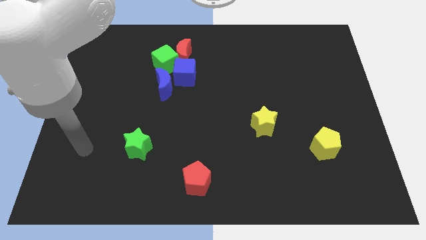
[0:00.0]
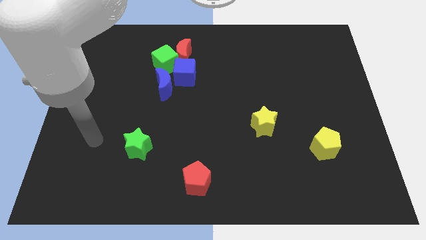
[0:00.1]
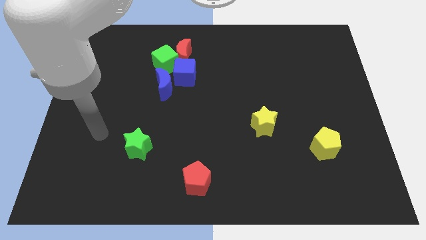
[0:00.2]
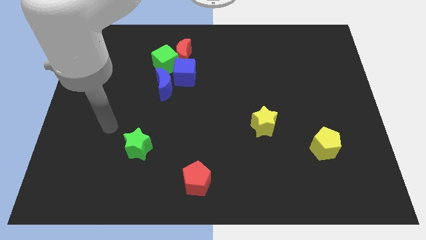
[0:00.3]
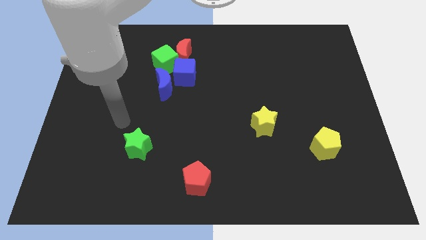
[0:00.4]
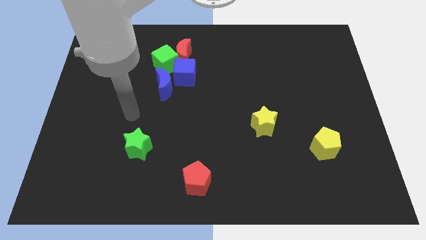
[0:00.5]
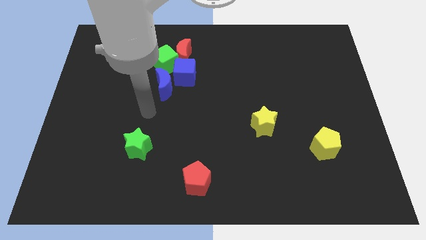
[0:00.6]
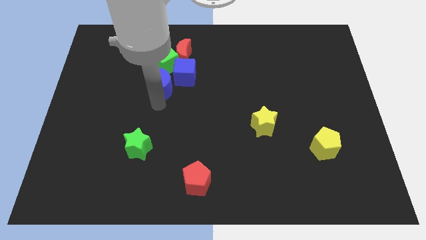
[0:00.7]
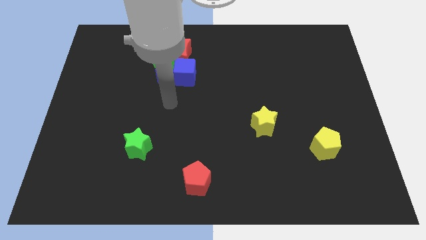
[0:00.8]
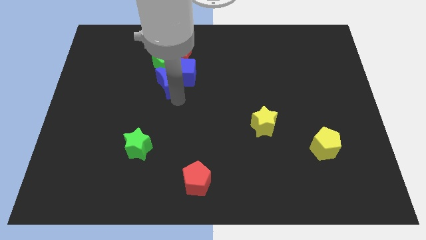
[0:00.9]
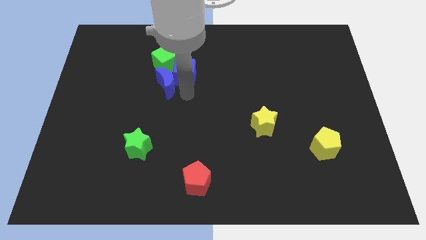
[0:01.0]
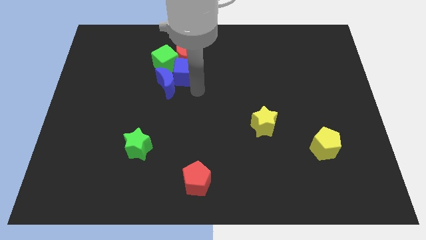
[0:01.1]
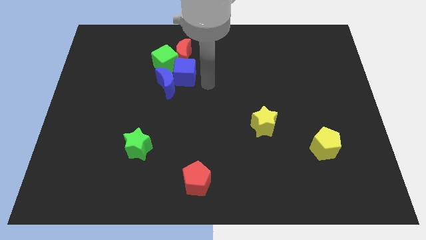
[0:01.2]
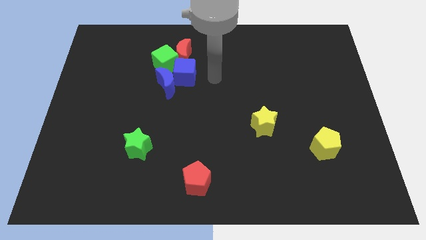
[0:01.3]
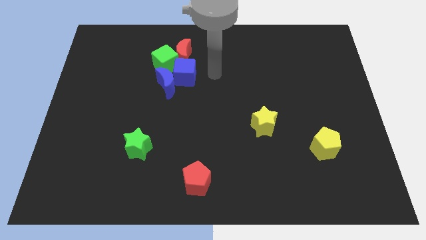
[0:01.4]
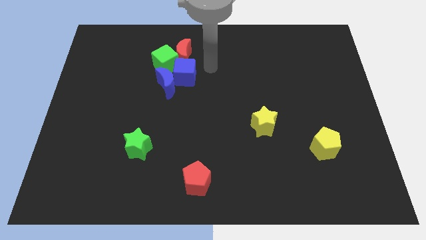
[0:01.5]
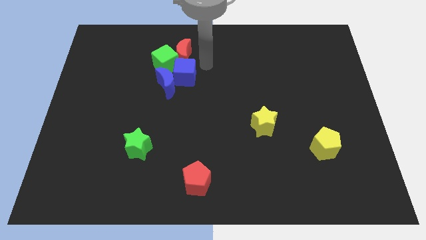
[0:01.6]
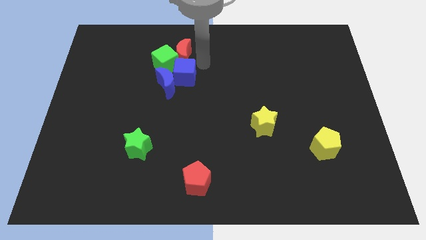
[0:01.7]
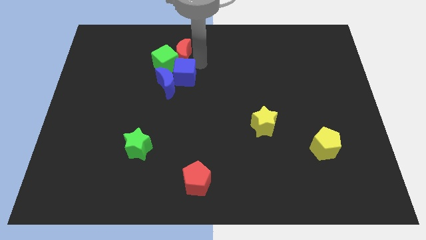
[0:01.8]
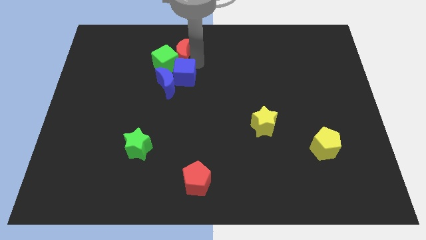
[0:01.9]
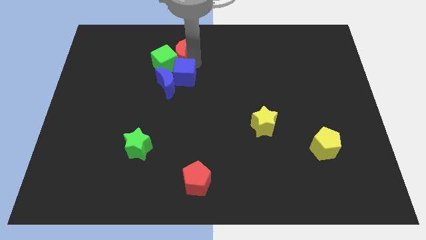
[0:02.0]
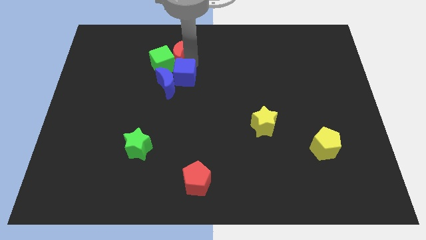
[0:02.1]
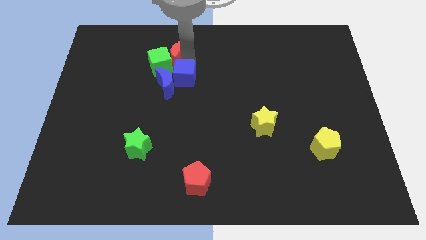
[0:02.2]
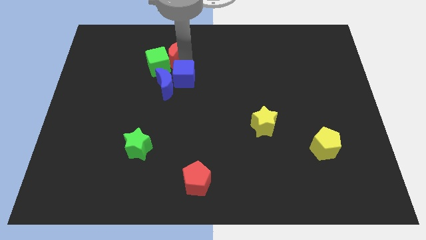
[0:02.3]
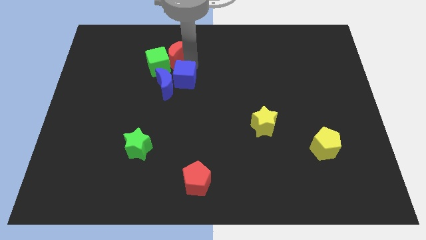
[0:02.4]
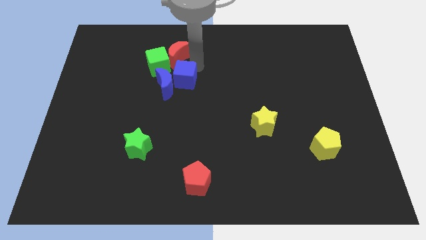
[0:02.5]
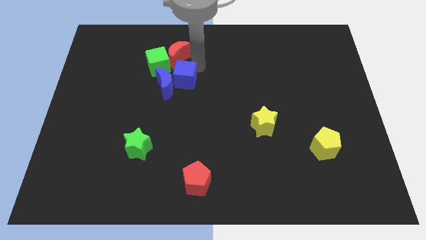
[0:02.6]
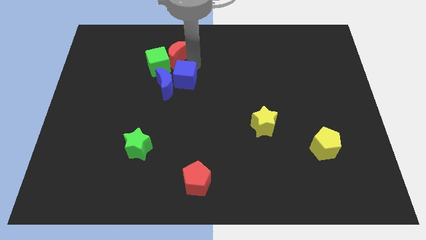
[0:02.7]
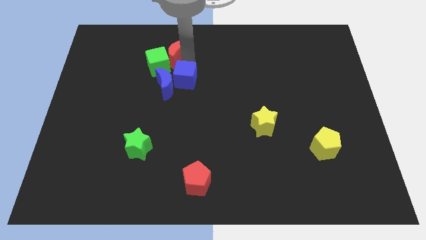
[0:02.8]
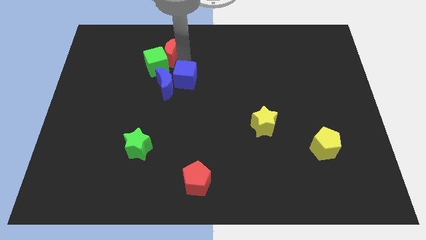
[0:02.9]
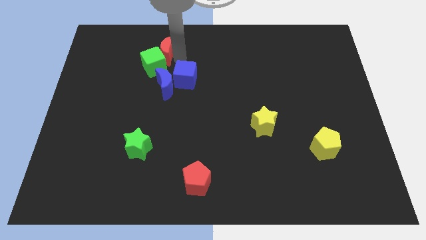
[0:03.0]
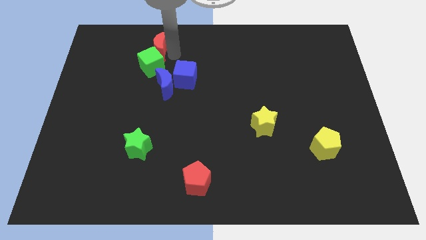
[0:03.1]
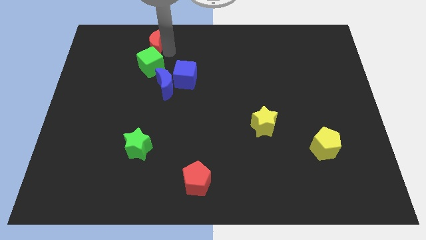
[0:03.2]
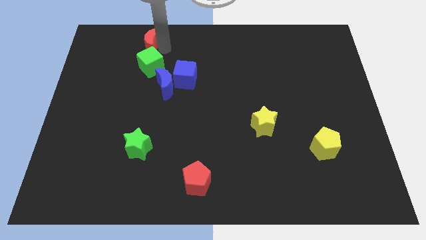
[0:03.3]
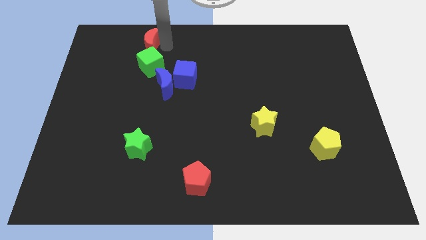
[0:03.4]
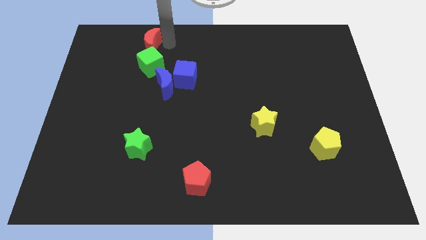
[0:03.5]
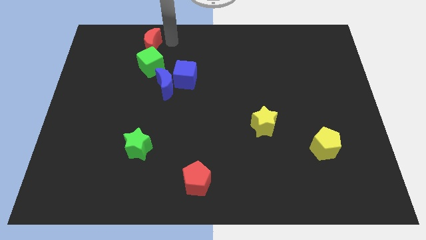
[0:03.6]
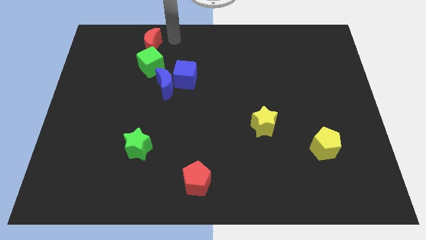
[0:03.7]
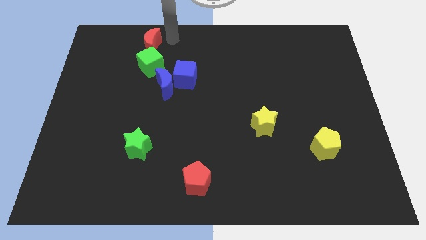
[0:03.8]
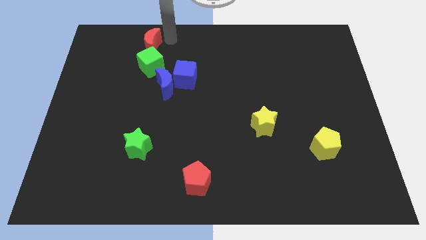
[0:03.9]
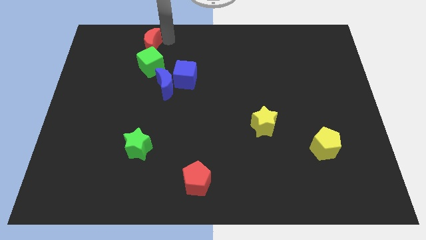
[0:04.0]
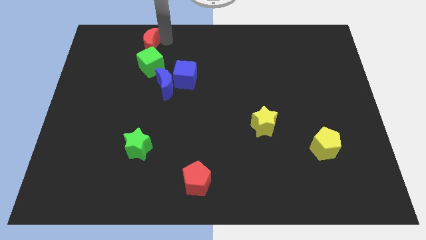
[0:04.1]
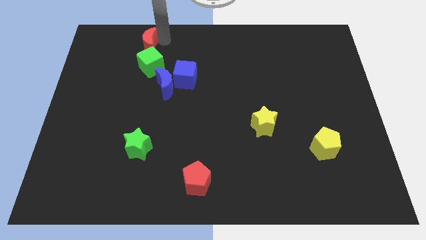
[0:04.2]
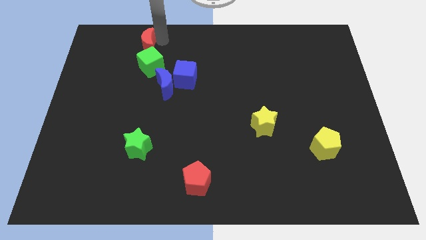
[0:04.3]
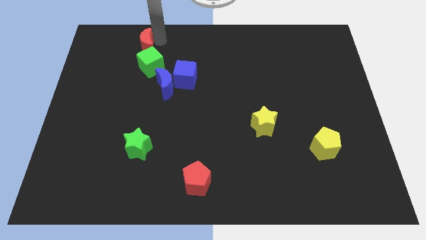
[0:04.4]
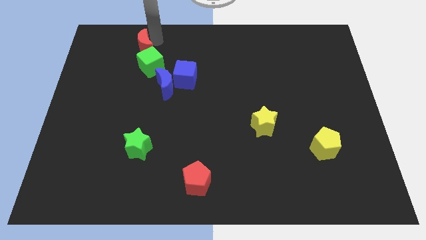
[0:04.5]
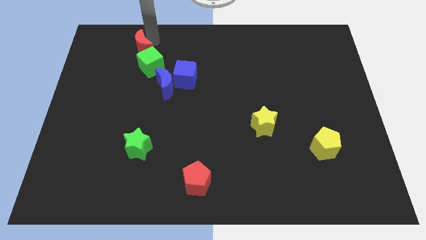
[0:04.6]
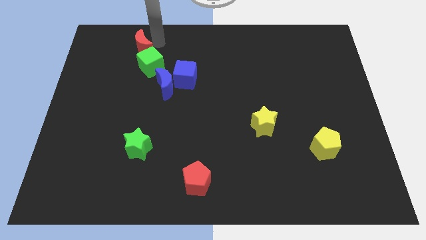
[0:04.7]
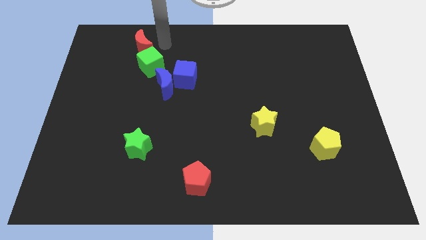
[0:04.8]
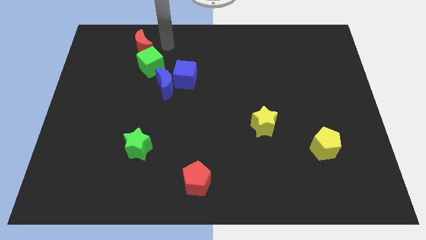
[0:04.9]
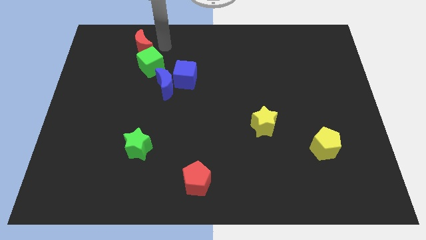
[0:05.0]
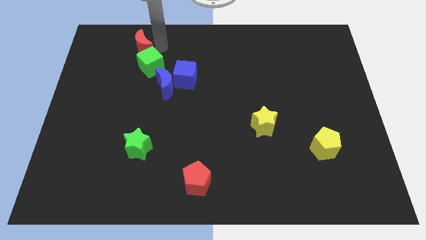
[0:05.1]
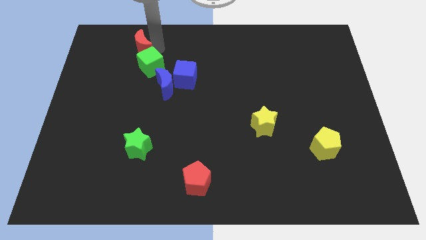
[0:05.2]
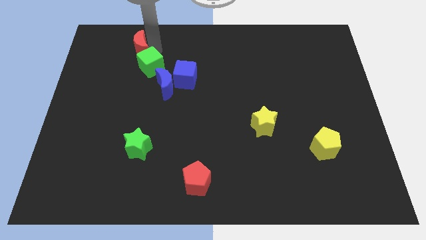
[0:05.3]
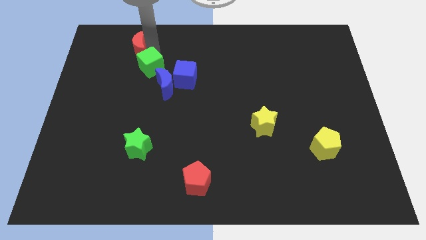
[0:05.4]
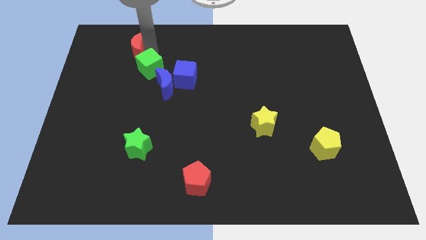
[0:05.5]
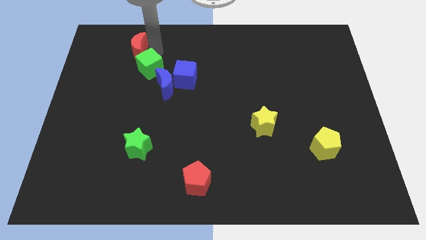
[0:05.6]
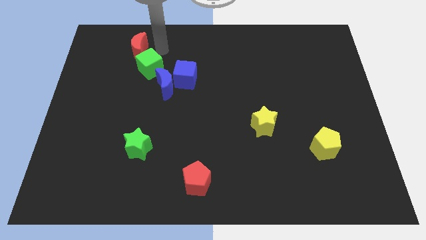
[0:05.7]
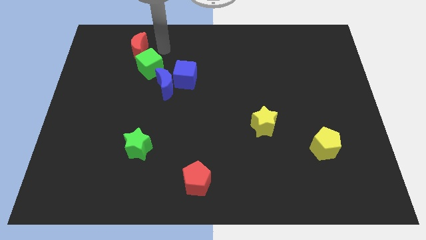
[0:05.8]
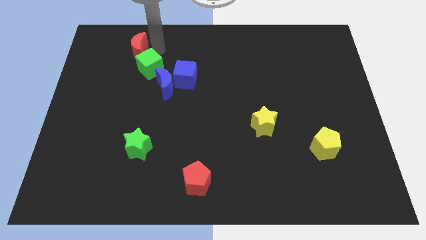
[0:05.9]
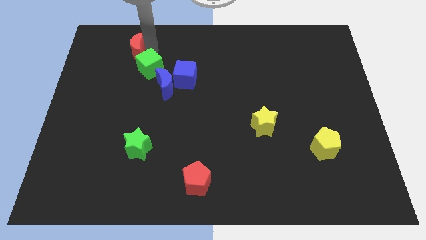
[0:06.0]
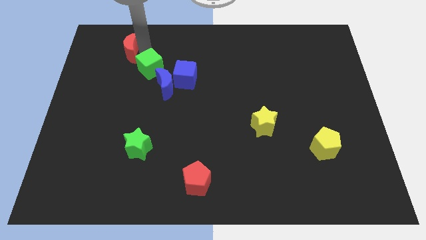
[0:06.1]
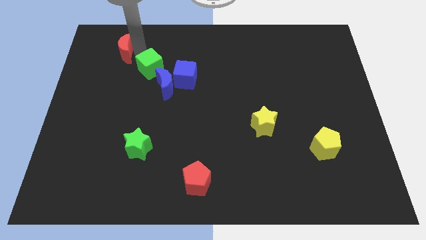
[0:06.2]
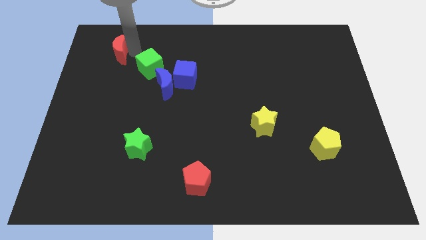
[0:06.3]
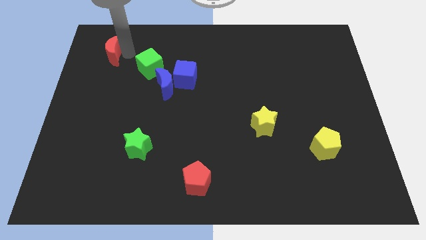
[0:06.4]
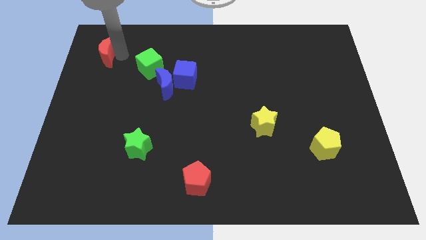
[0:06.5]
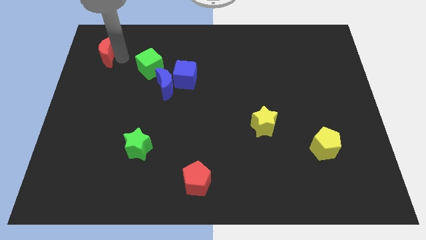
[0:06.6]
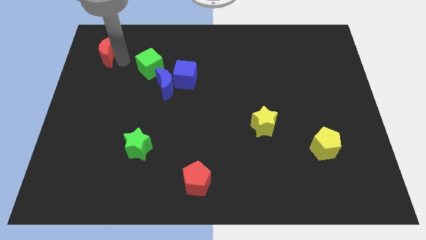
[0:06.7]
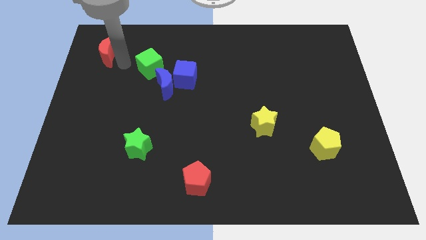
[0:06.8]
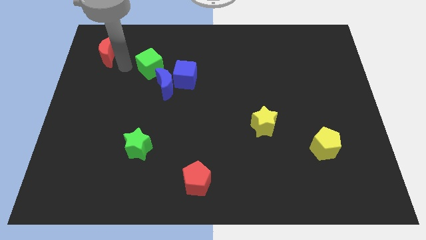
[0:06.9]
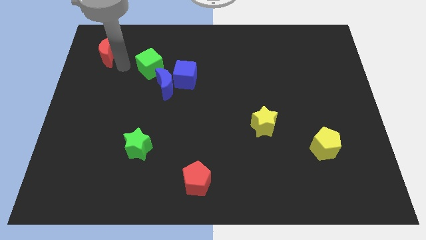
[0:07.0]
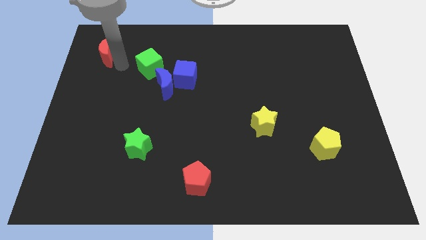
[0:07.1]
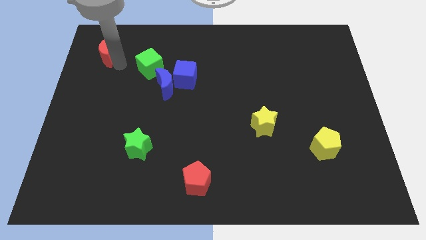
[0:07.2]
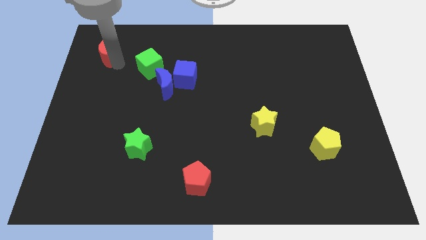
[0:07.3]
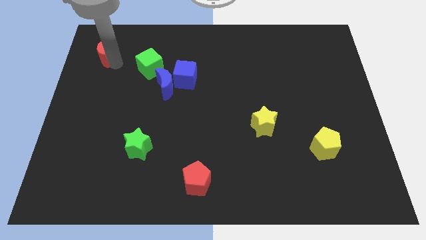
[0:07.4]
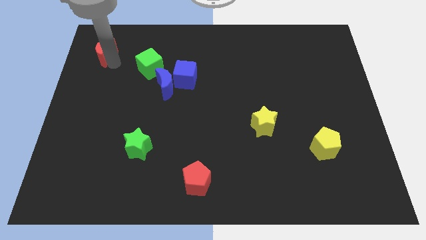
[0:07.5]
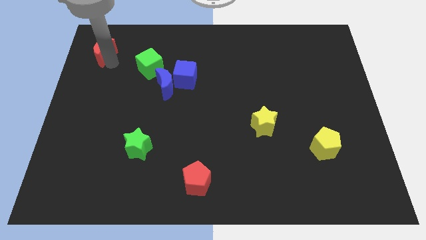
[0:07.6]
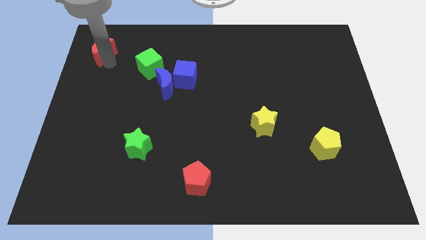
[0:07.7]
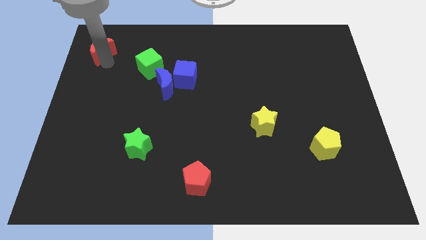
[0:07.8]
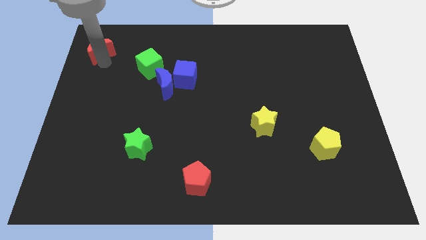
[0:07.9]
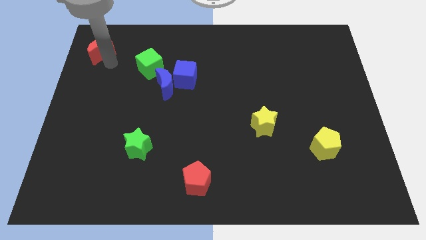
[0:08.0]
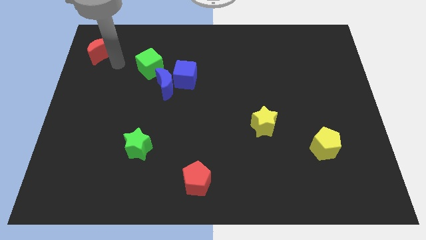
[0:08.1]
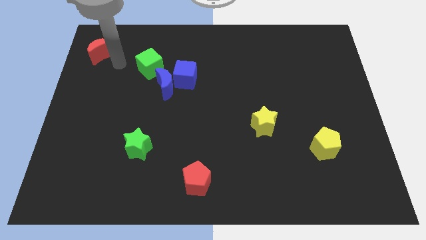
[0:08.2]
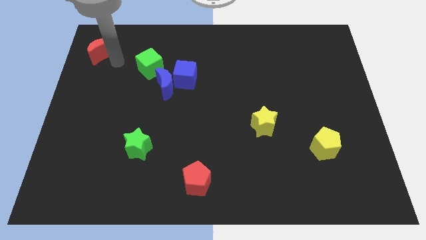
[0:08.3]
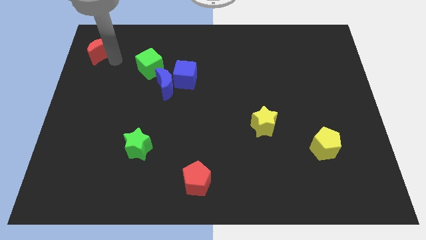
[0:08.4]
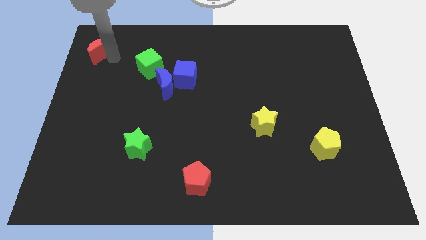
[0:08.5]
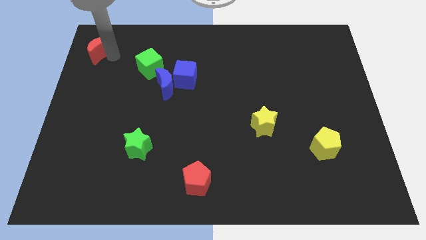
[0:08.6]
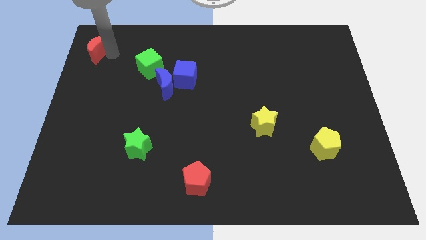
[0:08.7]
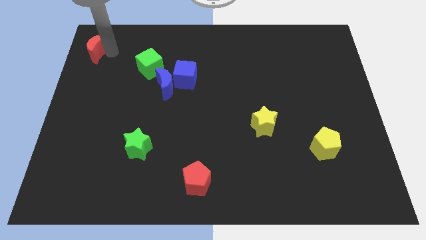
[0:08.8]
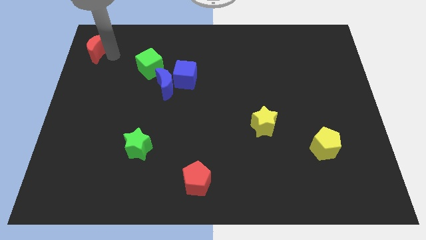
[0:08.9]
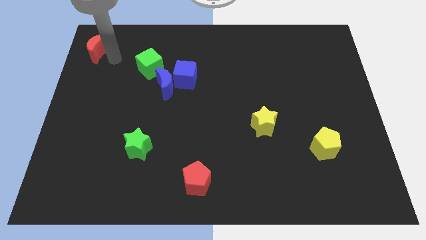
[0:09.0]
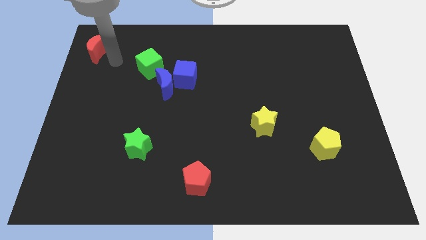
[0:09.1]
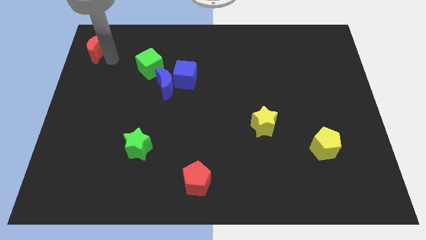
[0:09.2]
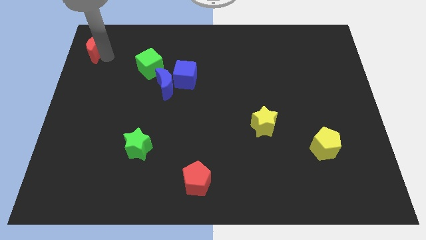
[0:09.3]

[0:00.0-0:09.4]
push the red moon to the upper left corner
